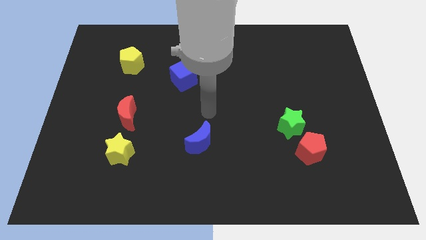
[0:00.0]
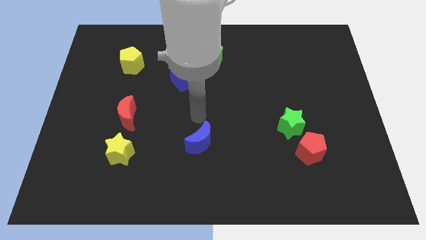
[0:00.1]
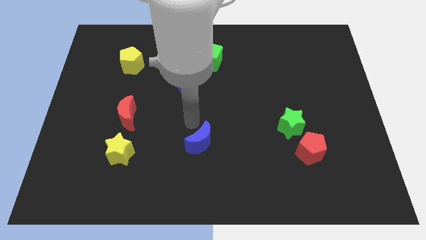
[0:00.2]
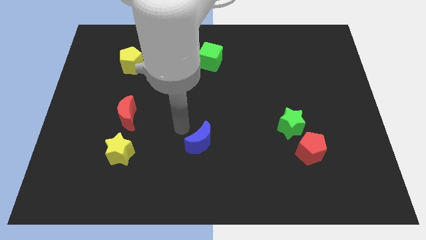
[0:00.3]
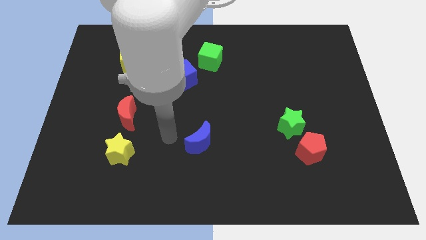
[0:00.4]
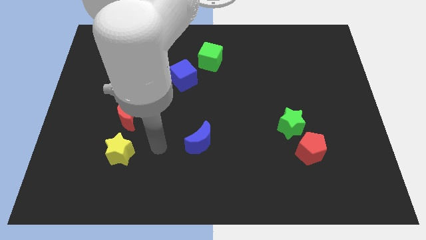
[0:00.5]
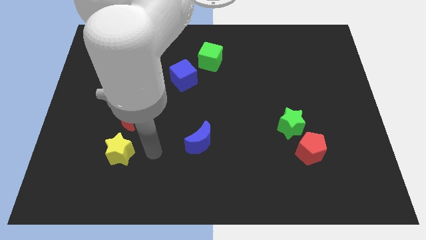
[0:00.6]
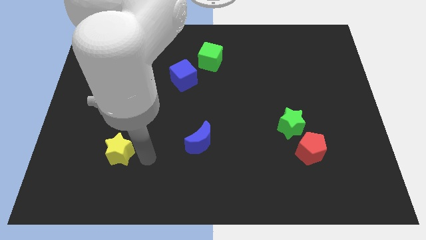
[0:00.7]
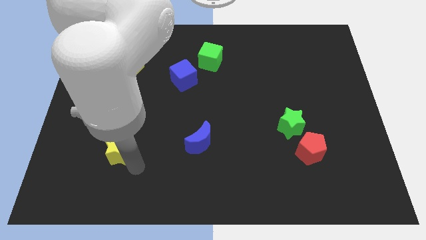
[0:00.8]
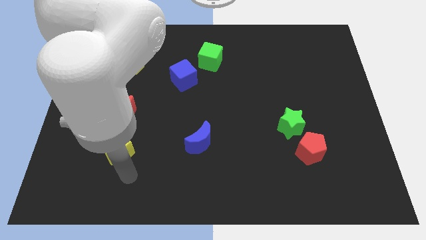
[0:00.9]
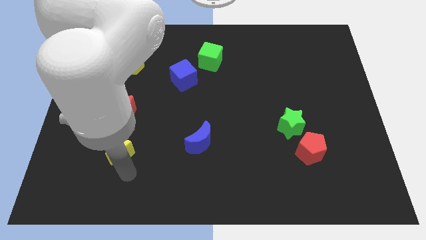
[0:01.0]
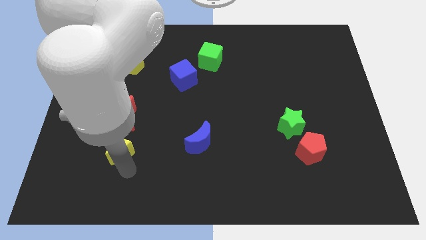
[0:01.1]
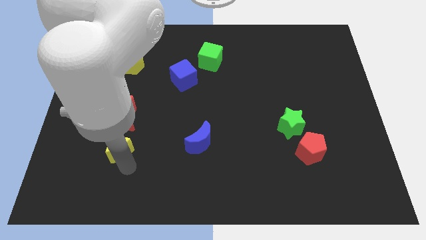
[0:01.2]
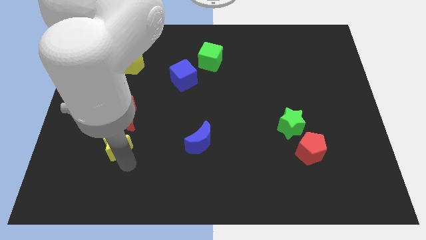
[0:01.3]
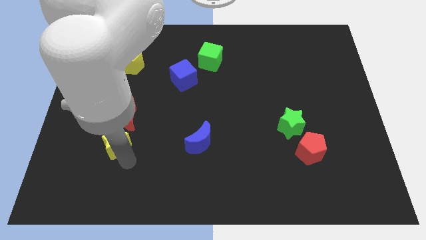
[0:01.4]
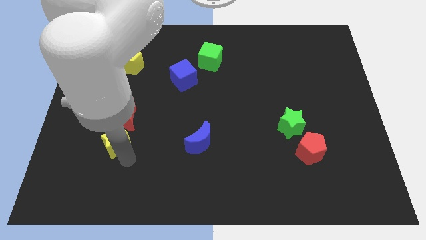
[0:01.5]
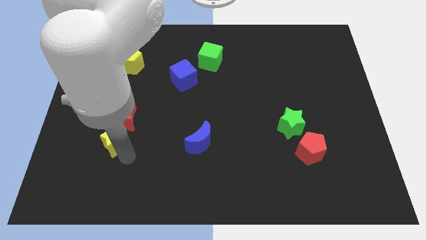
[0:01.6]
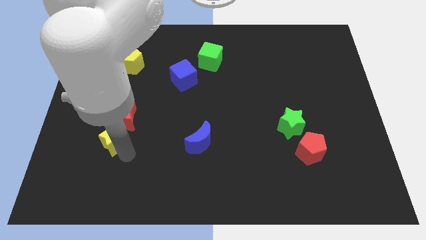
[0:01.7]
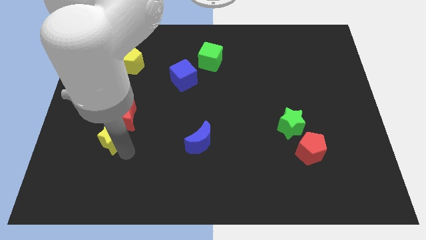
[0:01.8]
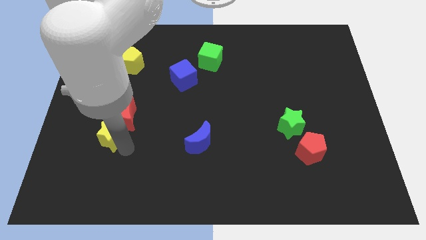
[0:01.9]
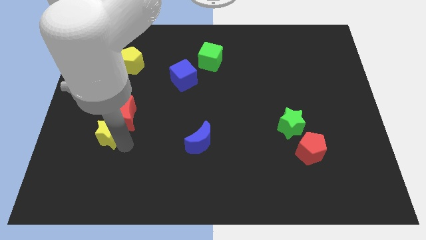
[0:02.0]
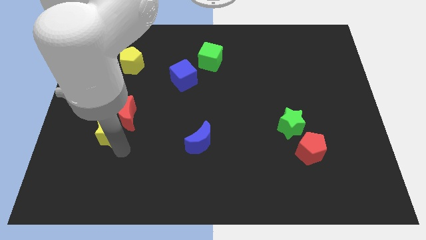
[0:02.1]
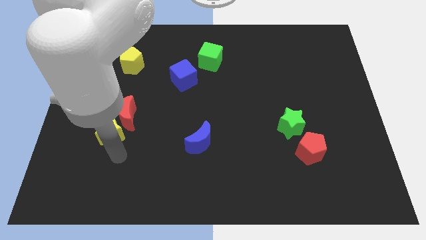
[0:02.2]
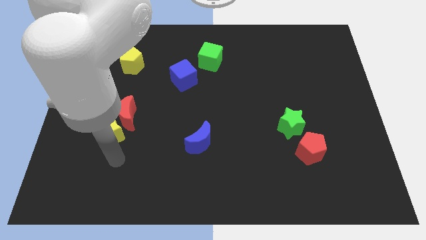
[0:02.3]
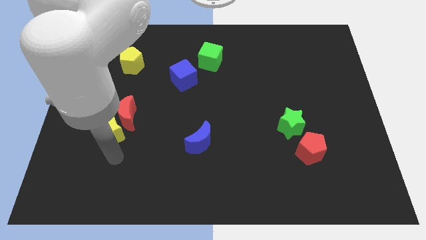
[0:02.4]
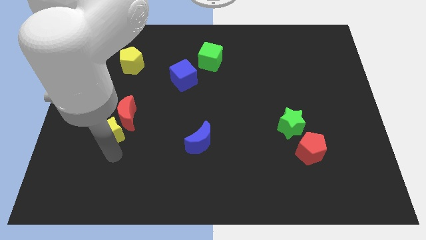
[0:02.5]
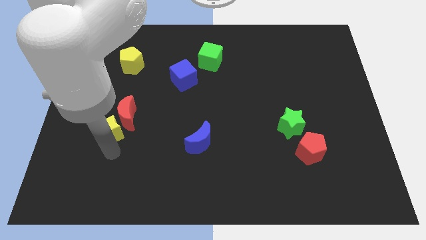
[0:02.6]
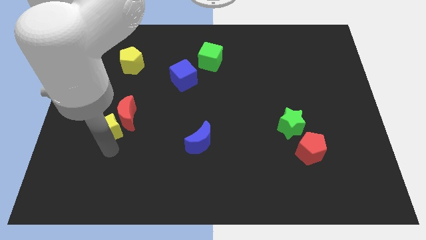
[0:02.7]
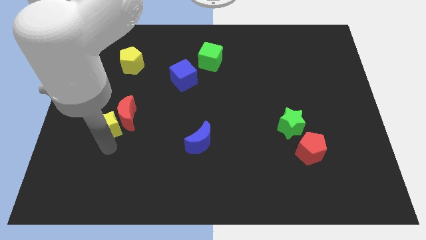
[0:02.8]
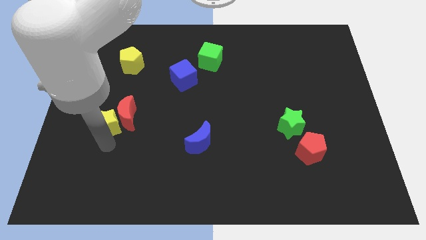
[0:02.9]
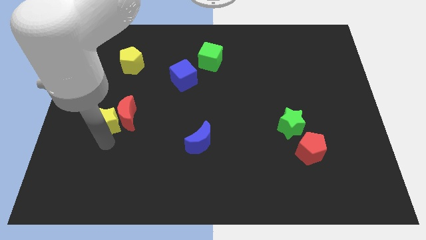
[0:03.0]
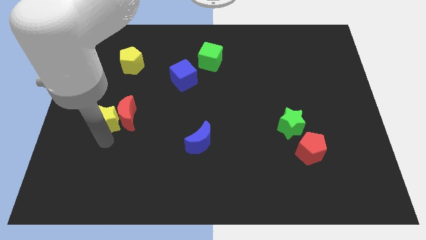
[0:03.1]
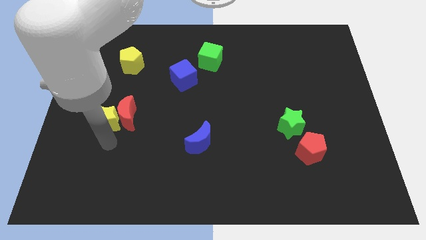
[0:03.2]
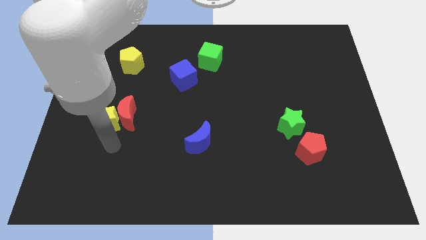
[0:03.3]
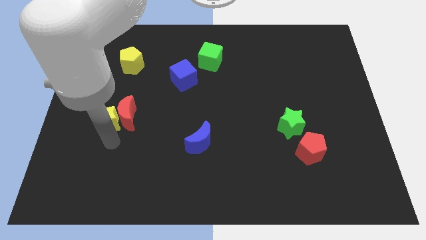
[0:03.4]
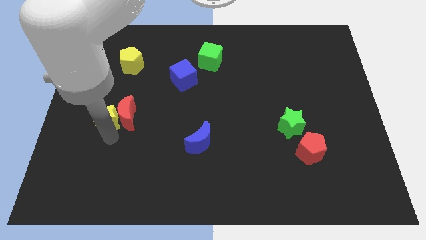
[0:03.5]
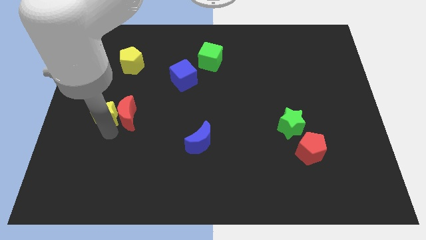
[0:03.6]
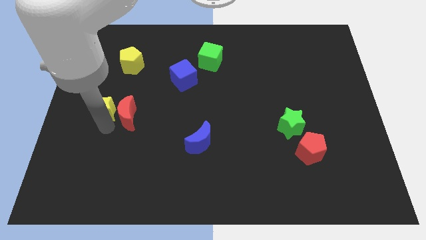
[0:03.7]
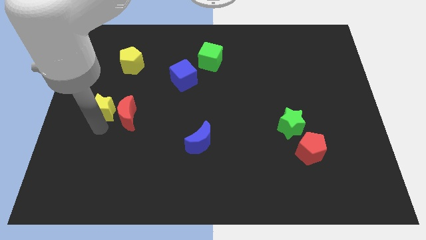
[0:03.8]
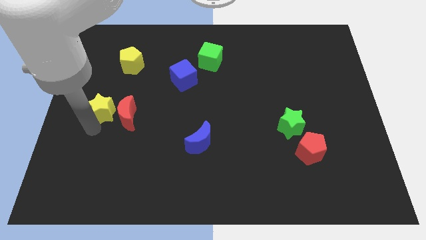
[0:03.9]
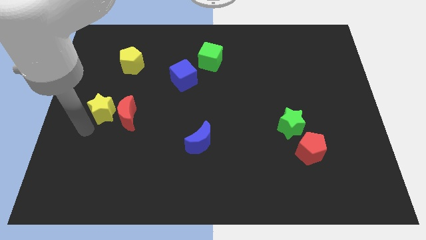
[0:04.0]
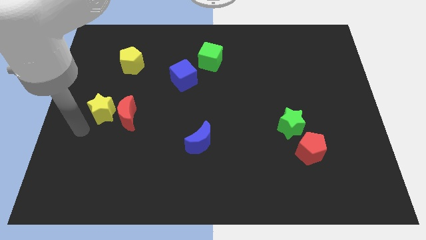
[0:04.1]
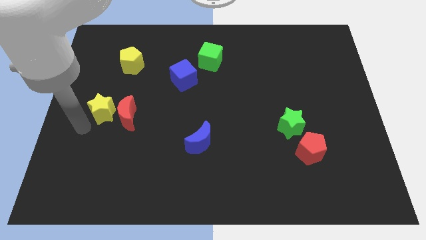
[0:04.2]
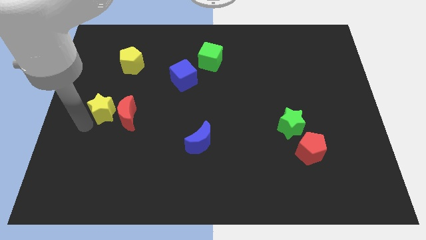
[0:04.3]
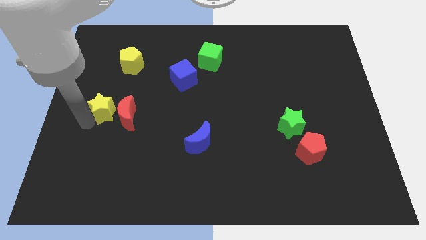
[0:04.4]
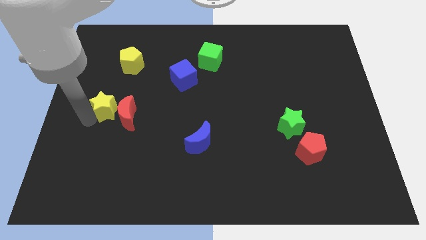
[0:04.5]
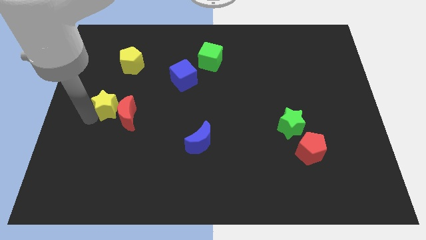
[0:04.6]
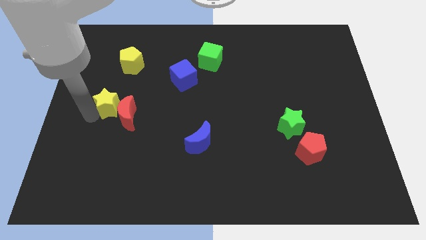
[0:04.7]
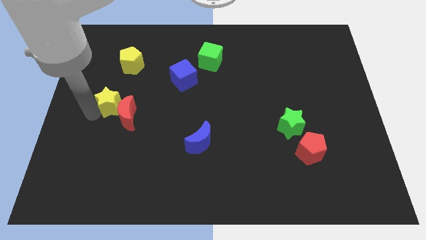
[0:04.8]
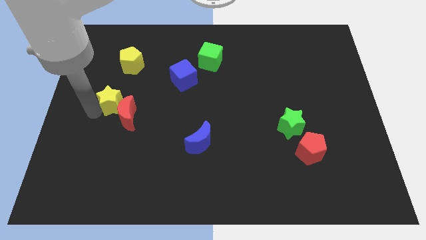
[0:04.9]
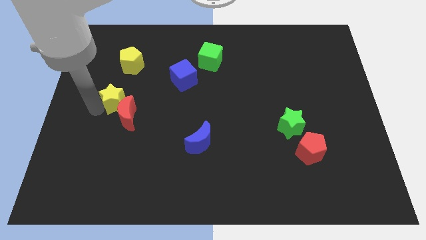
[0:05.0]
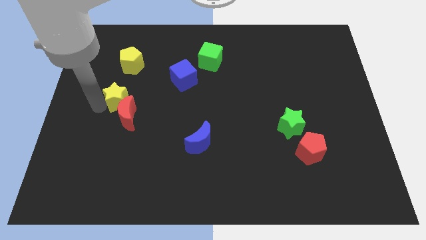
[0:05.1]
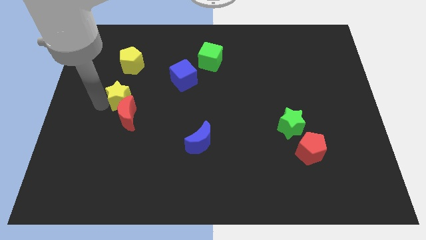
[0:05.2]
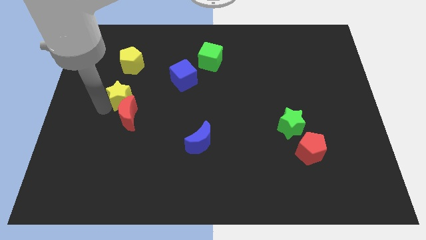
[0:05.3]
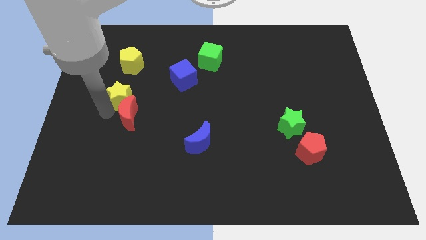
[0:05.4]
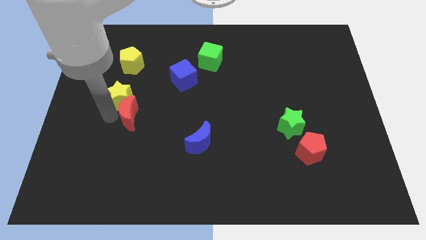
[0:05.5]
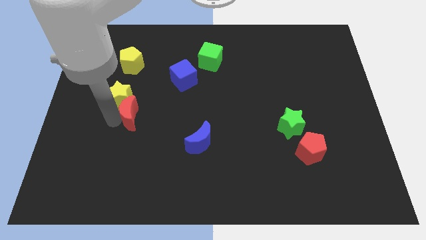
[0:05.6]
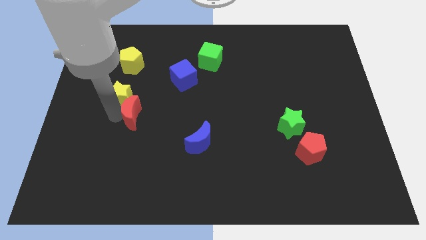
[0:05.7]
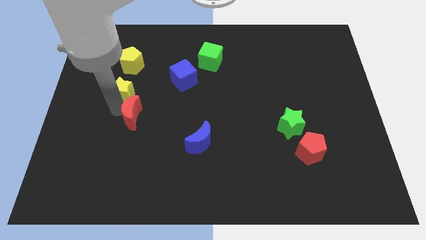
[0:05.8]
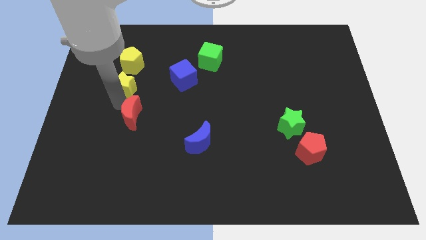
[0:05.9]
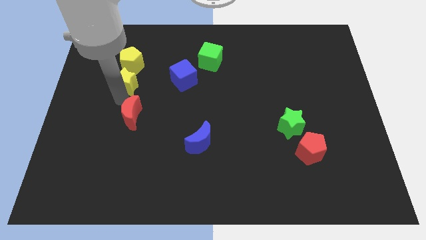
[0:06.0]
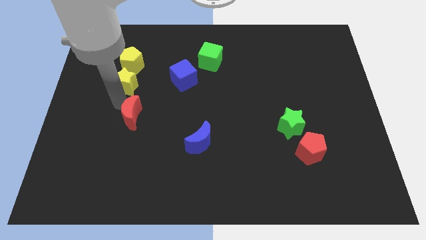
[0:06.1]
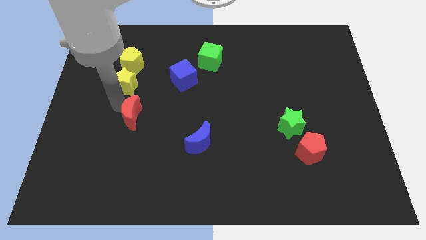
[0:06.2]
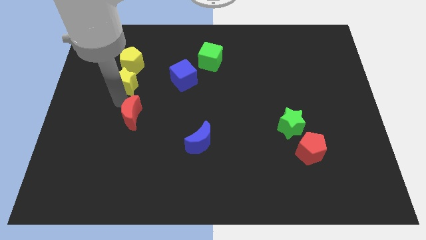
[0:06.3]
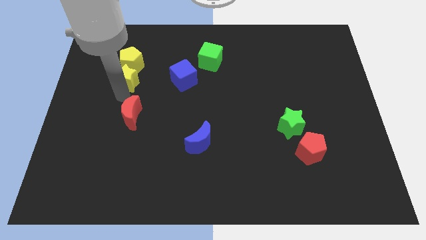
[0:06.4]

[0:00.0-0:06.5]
put the yellow star to the yellow pentagon

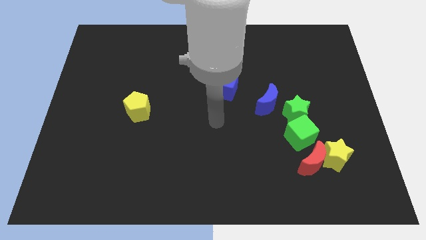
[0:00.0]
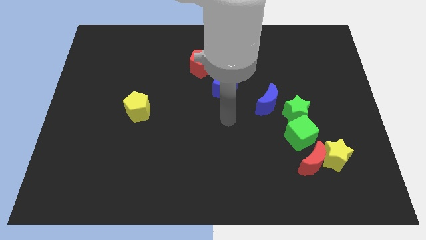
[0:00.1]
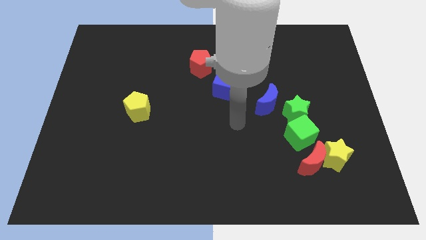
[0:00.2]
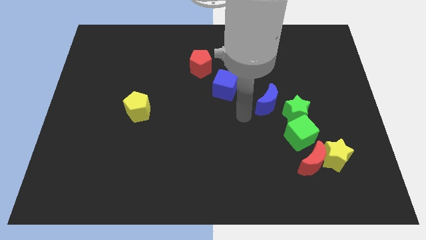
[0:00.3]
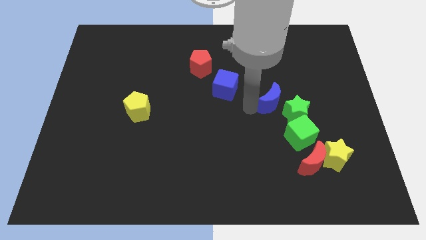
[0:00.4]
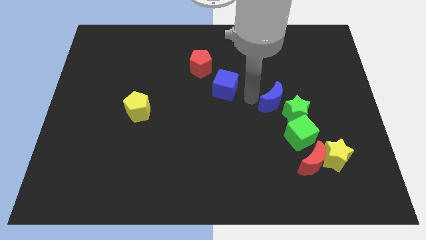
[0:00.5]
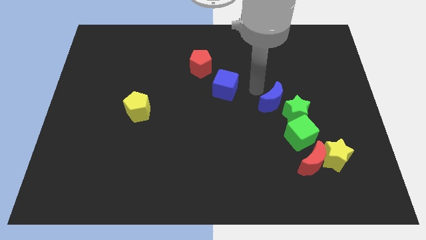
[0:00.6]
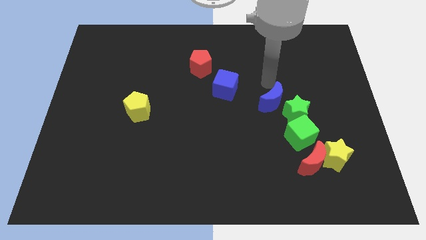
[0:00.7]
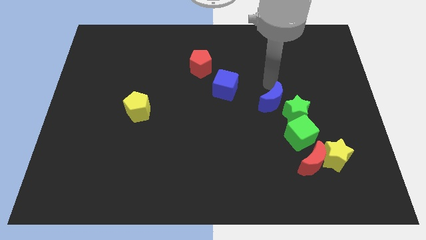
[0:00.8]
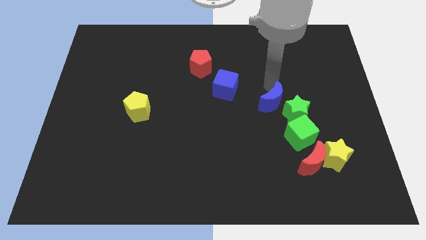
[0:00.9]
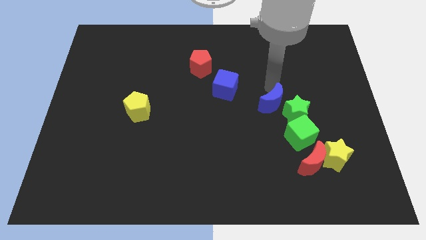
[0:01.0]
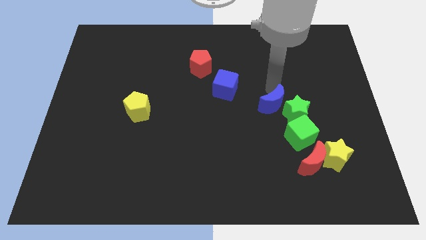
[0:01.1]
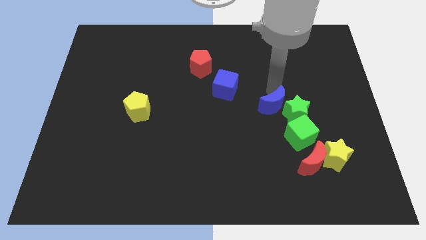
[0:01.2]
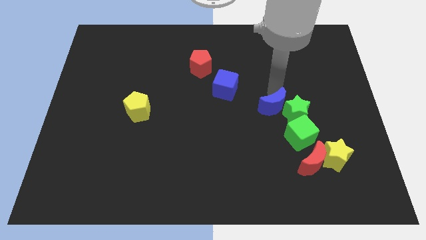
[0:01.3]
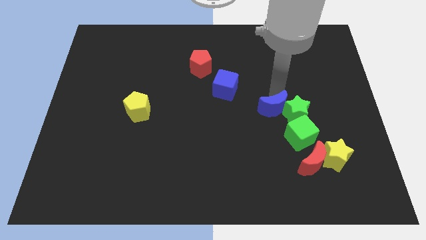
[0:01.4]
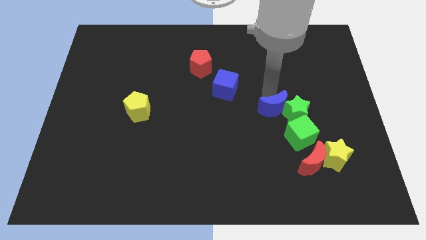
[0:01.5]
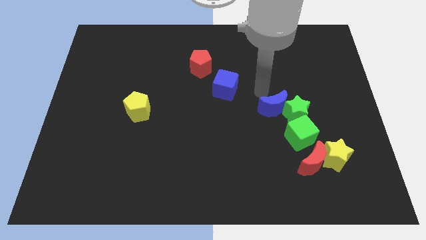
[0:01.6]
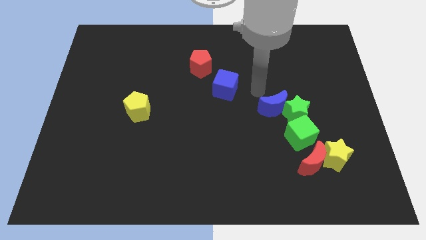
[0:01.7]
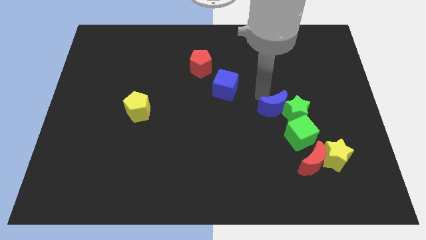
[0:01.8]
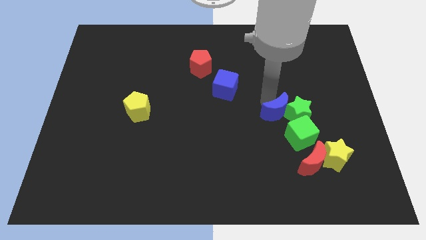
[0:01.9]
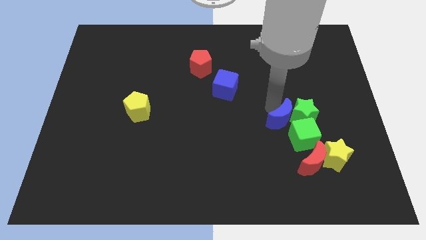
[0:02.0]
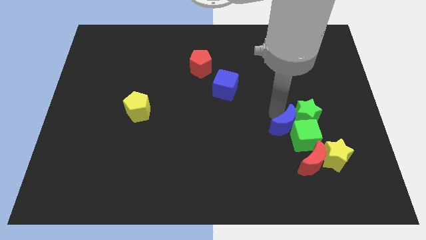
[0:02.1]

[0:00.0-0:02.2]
move the blue moon to the green cube
